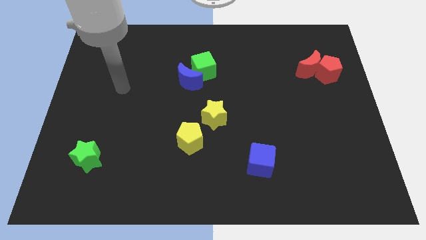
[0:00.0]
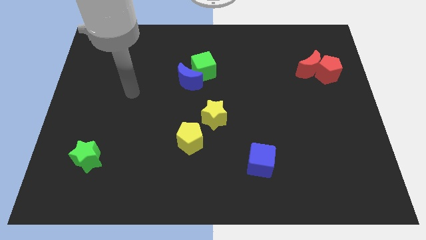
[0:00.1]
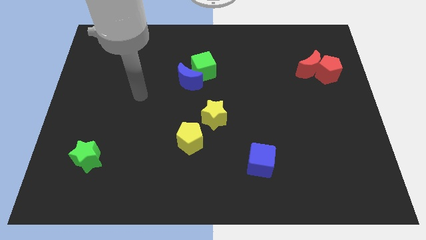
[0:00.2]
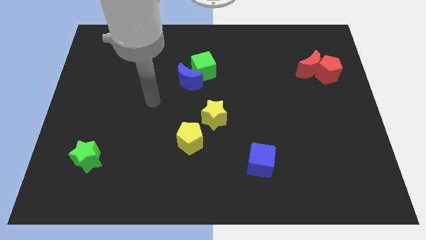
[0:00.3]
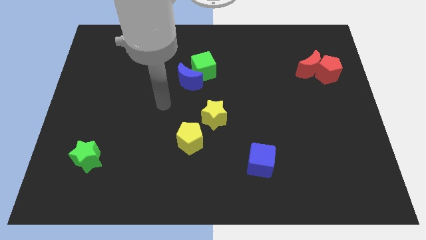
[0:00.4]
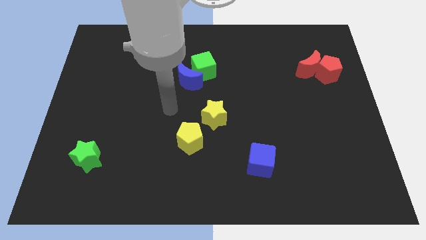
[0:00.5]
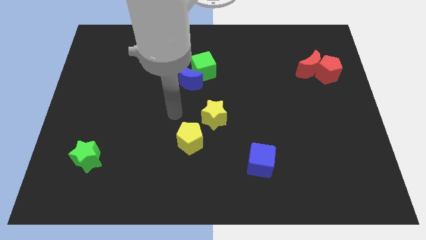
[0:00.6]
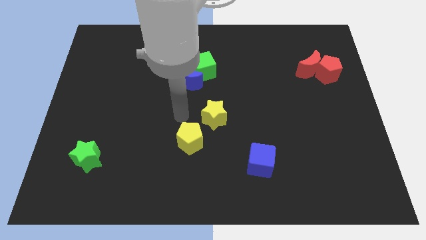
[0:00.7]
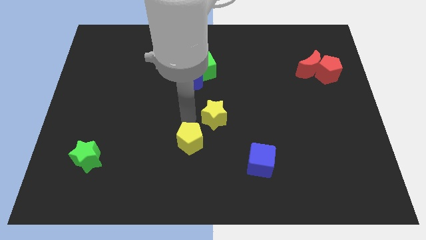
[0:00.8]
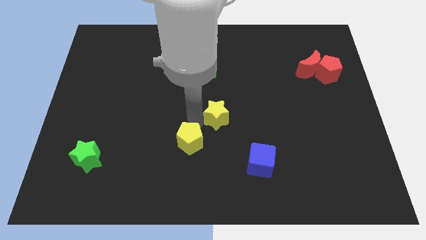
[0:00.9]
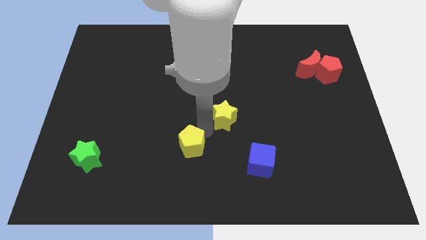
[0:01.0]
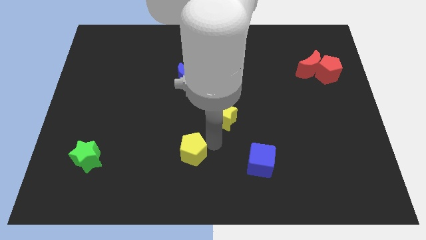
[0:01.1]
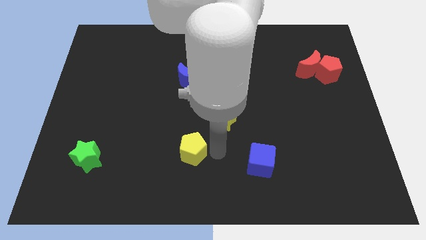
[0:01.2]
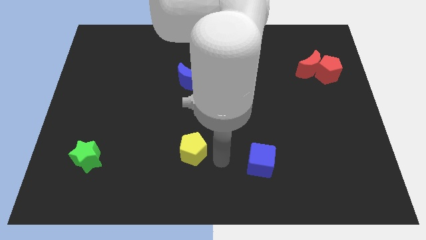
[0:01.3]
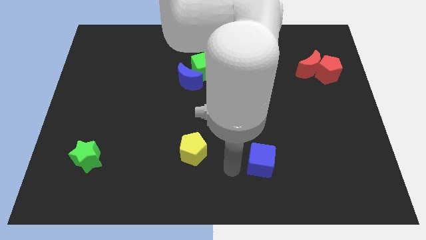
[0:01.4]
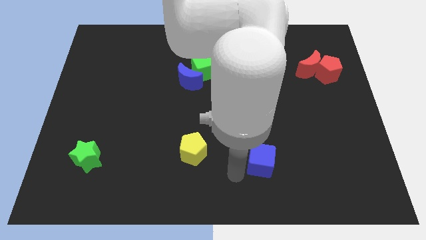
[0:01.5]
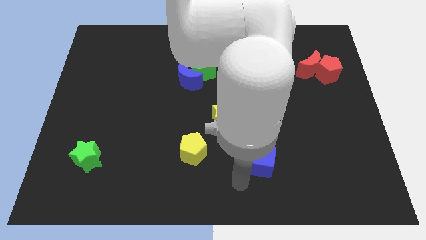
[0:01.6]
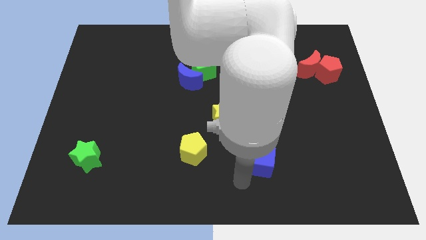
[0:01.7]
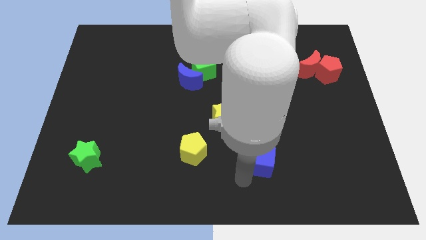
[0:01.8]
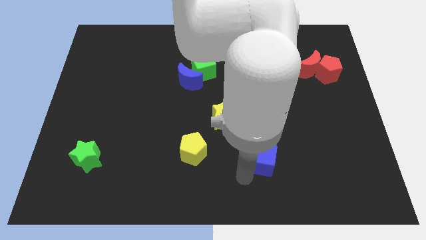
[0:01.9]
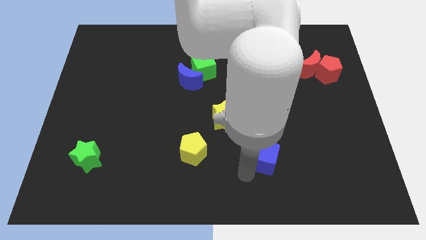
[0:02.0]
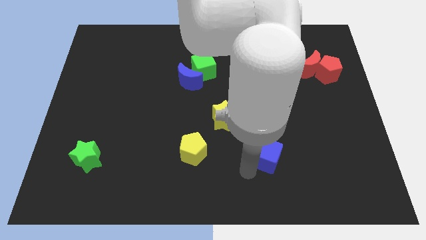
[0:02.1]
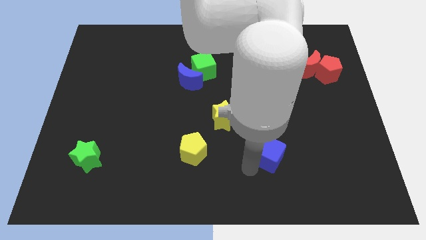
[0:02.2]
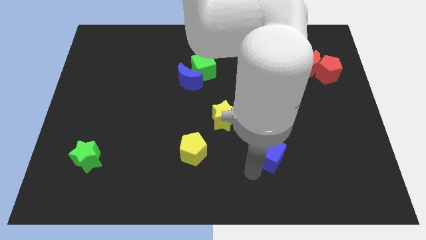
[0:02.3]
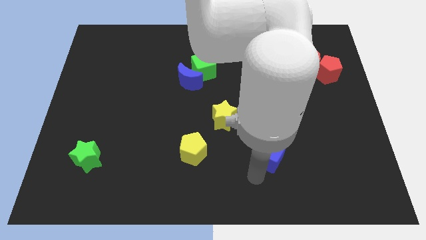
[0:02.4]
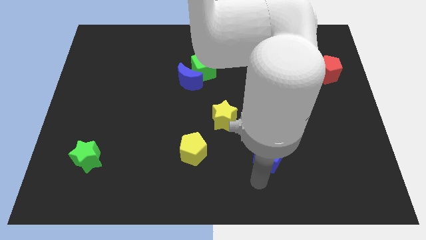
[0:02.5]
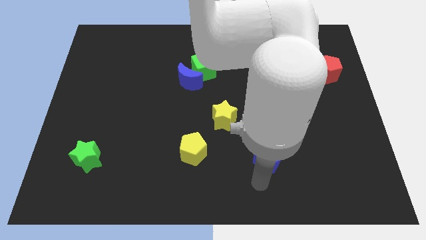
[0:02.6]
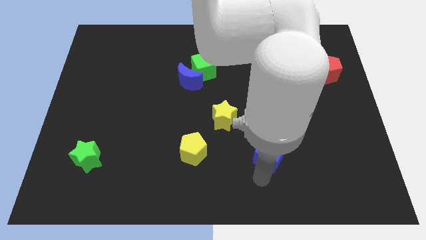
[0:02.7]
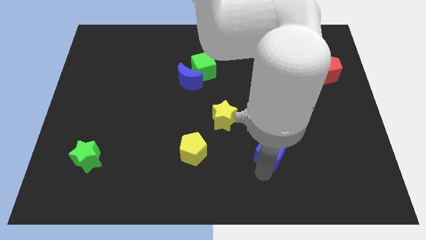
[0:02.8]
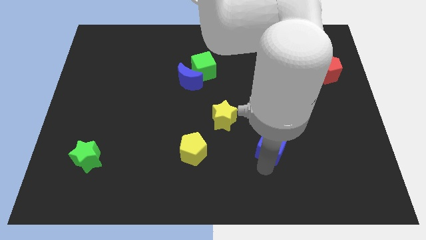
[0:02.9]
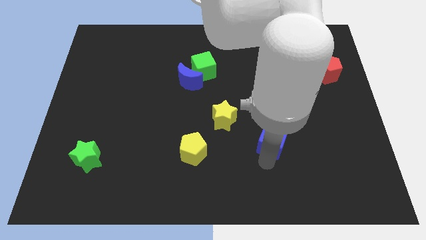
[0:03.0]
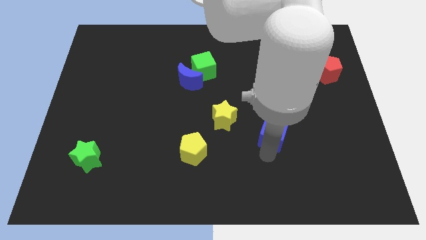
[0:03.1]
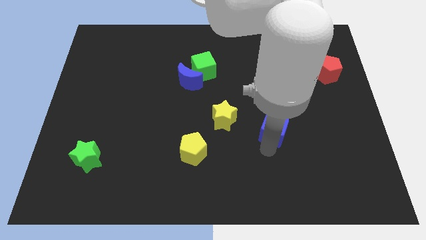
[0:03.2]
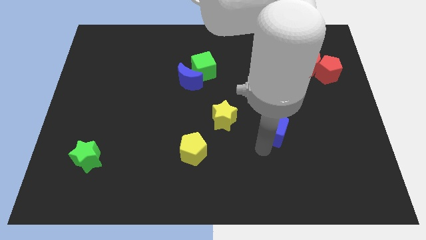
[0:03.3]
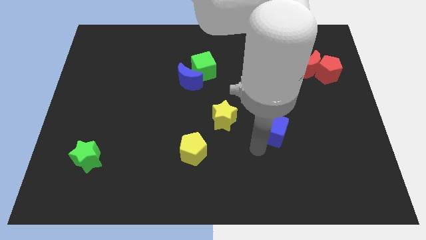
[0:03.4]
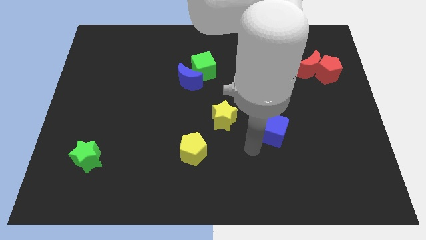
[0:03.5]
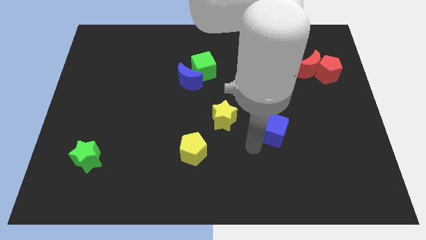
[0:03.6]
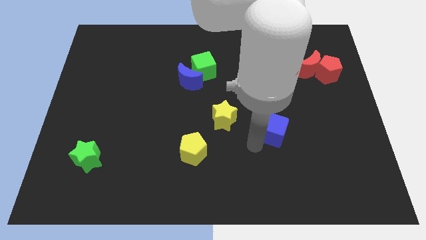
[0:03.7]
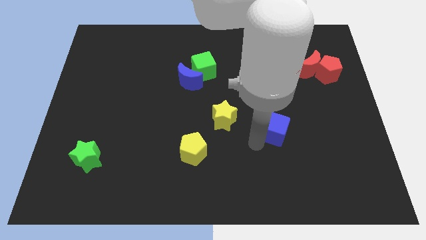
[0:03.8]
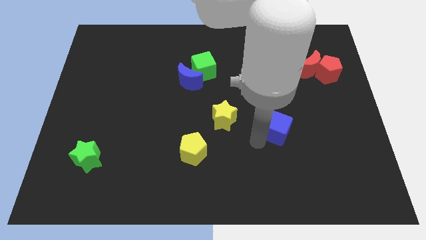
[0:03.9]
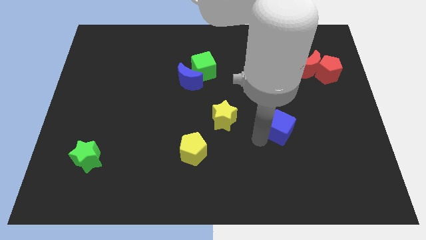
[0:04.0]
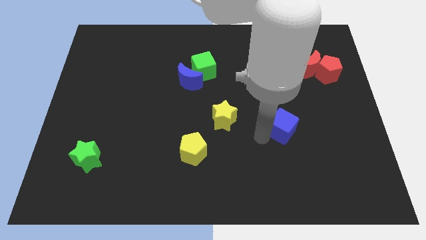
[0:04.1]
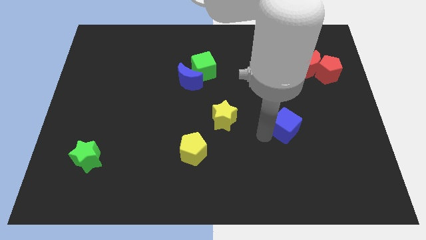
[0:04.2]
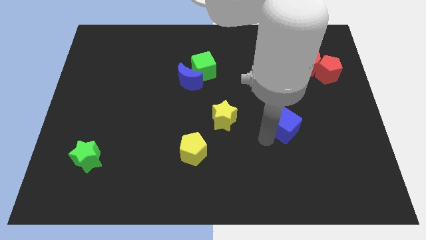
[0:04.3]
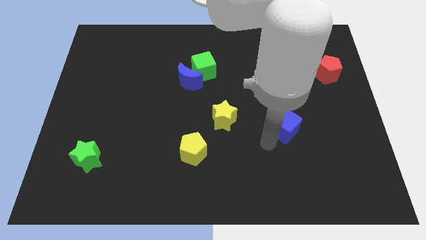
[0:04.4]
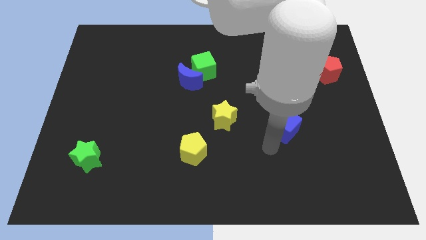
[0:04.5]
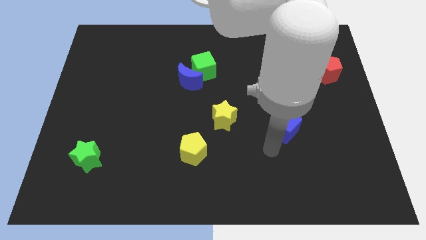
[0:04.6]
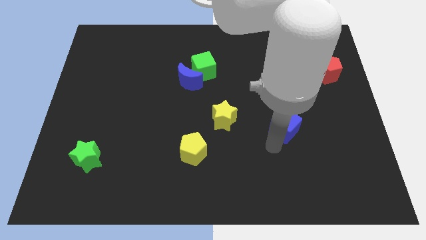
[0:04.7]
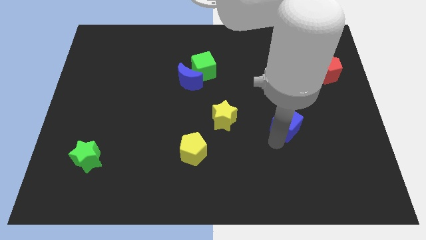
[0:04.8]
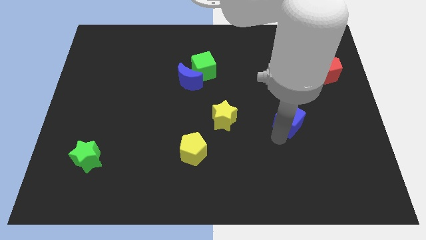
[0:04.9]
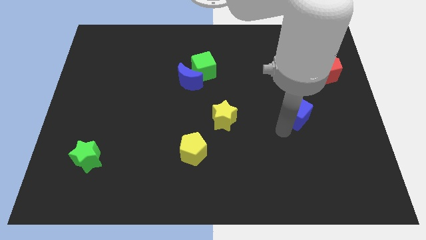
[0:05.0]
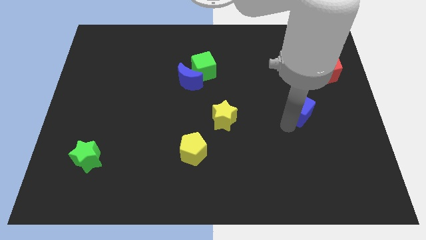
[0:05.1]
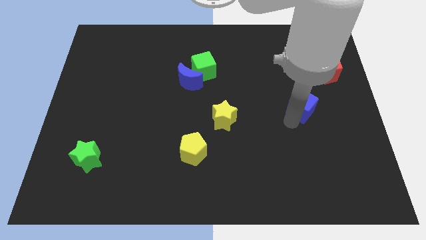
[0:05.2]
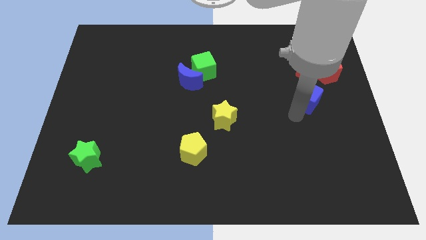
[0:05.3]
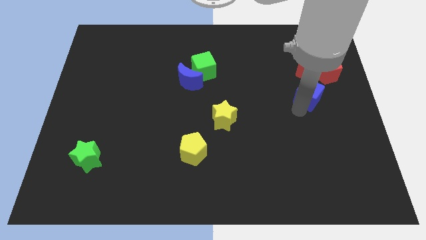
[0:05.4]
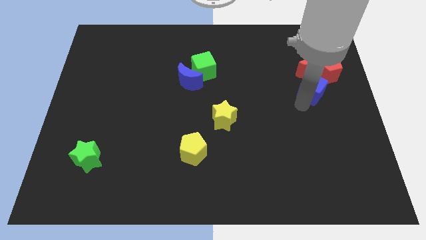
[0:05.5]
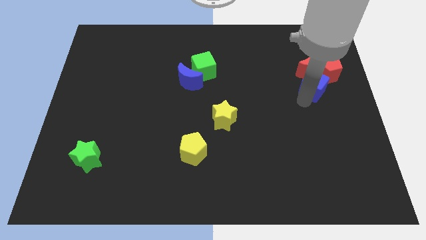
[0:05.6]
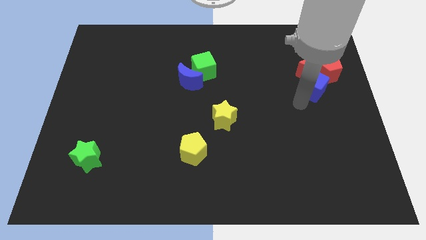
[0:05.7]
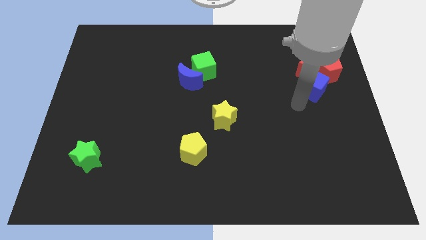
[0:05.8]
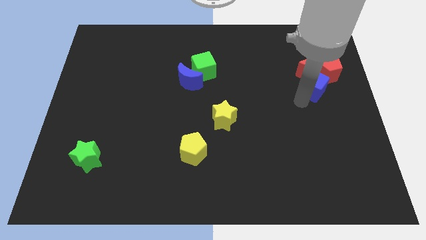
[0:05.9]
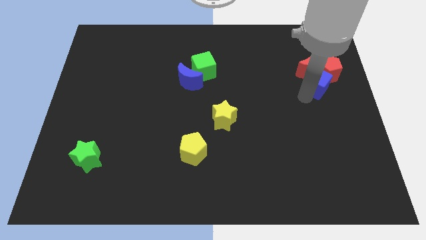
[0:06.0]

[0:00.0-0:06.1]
slide the blue cube towards the red pentagon

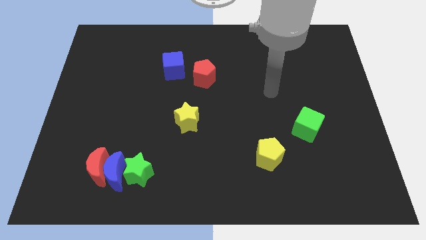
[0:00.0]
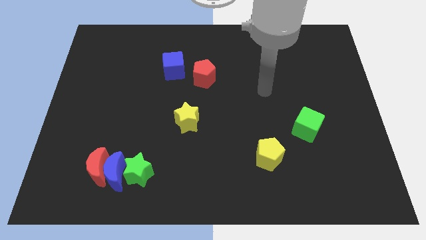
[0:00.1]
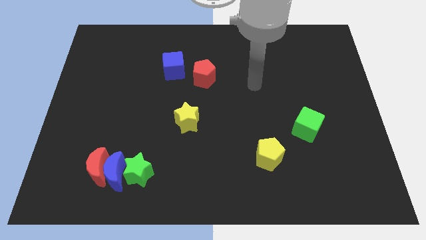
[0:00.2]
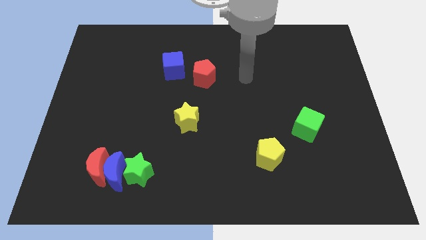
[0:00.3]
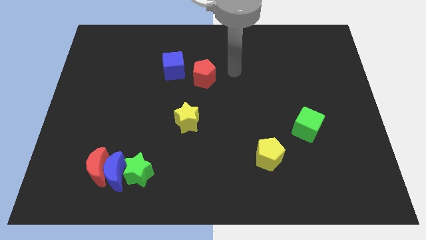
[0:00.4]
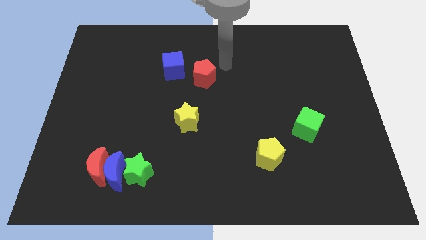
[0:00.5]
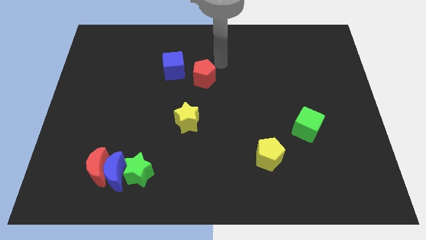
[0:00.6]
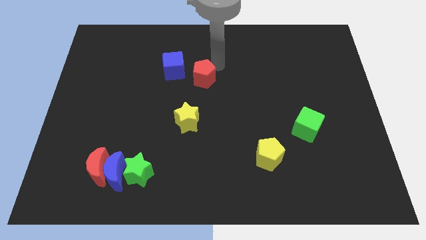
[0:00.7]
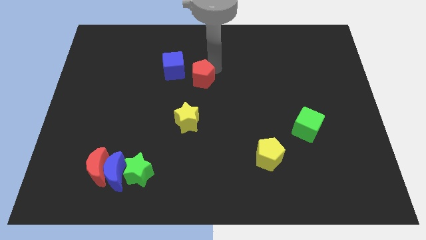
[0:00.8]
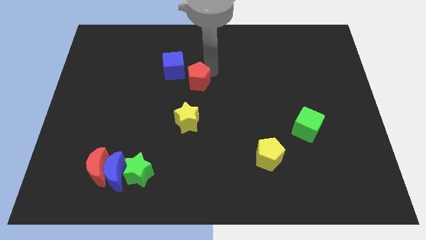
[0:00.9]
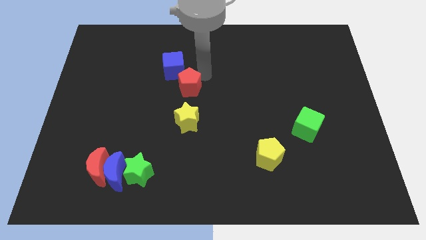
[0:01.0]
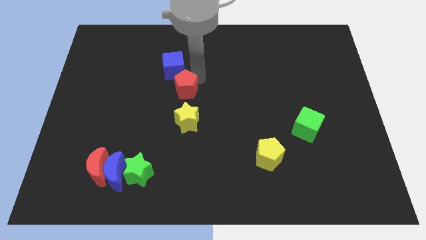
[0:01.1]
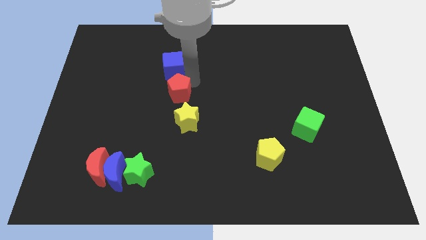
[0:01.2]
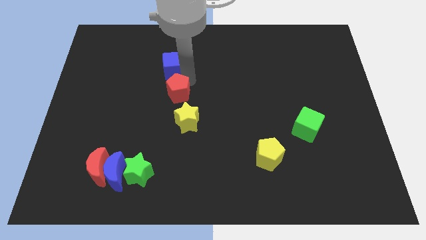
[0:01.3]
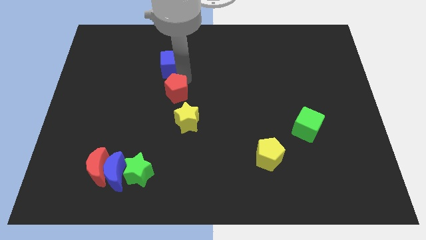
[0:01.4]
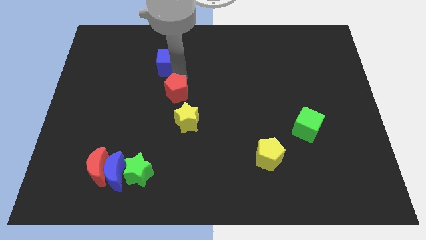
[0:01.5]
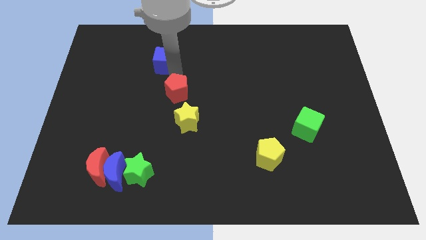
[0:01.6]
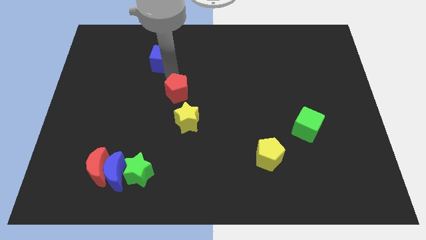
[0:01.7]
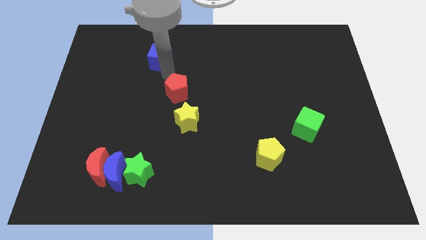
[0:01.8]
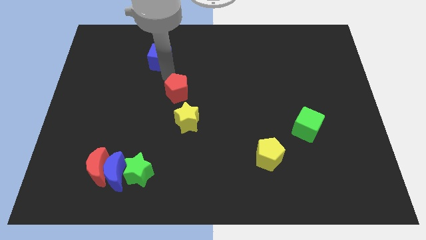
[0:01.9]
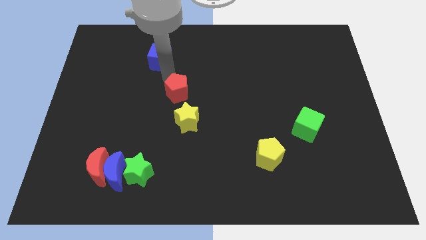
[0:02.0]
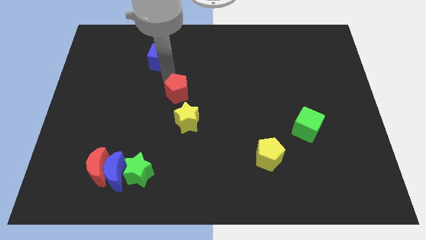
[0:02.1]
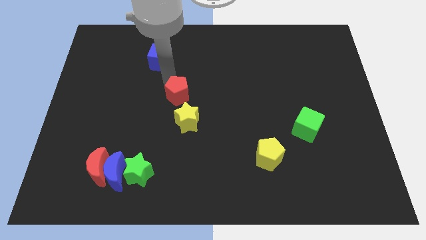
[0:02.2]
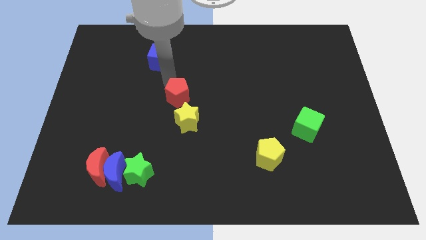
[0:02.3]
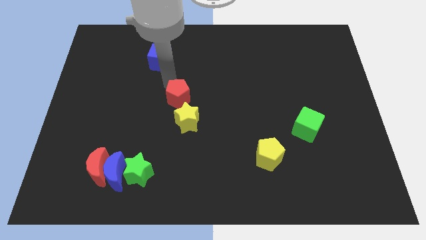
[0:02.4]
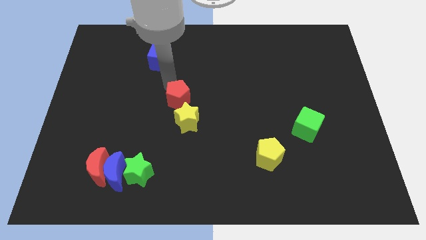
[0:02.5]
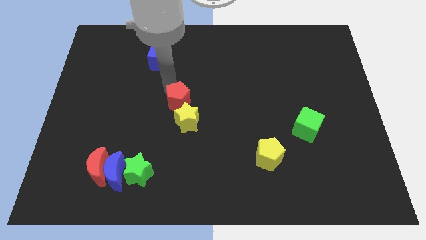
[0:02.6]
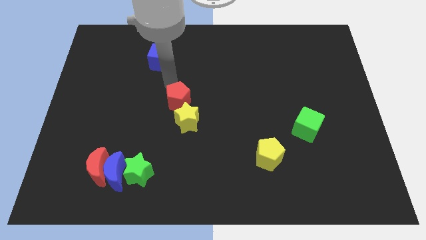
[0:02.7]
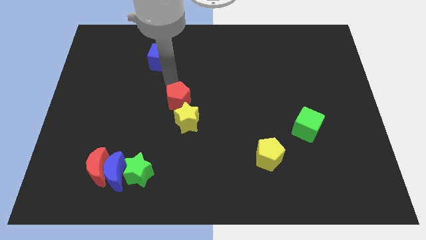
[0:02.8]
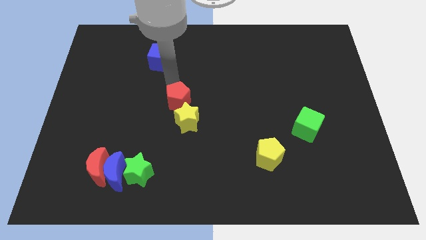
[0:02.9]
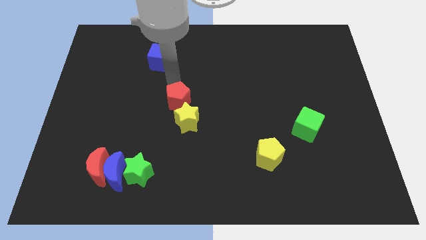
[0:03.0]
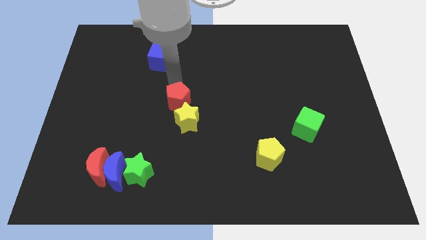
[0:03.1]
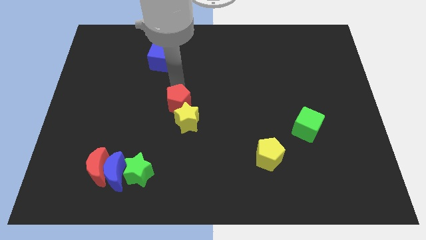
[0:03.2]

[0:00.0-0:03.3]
put the red pentagon close to the yellow star
